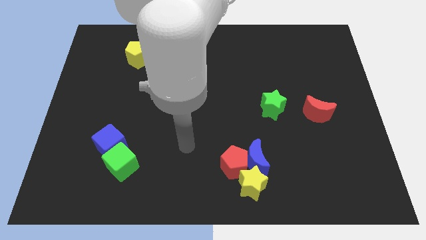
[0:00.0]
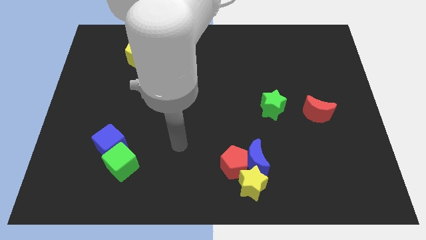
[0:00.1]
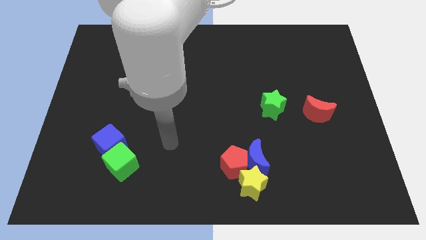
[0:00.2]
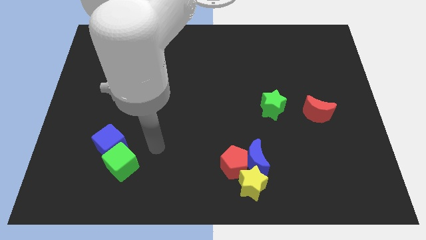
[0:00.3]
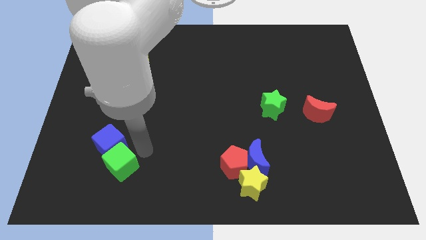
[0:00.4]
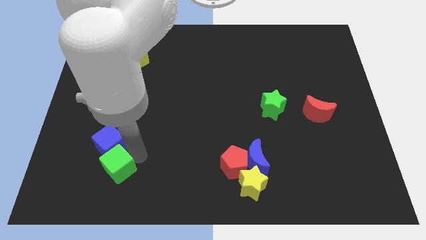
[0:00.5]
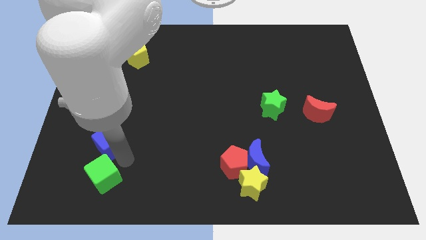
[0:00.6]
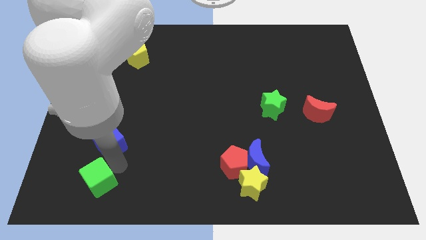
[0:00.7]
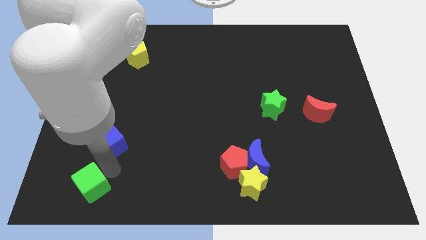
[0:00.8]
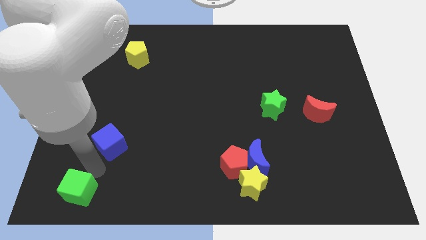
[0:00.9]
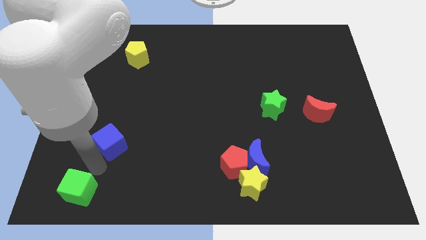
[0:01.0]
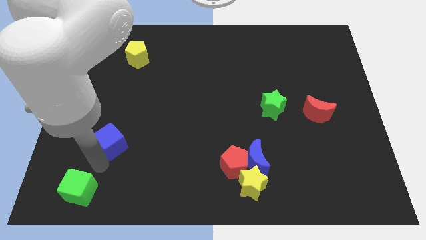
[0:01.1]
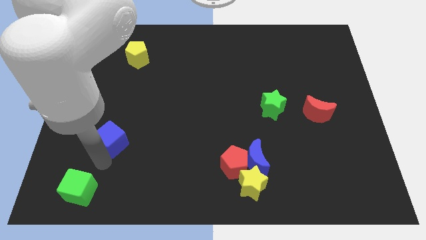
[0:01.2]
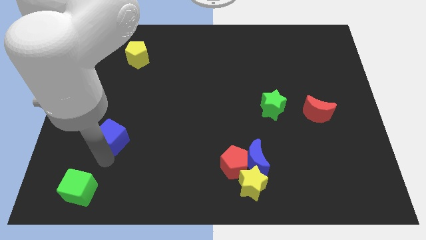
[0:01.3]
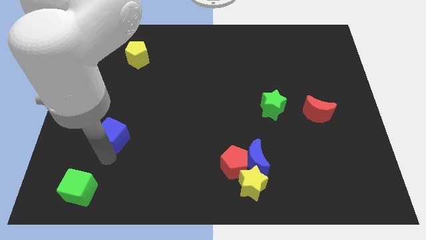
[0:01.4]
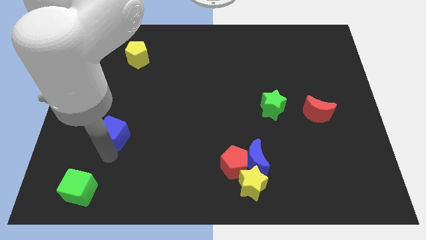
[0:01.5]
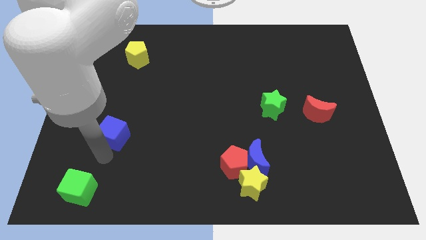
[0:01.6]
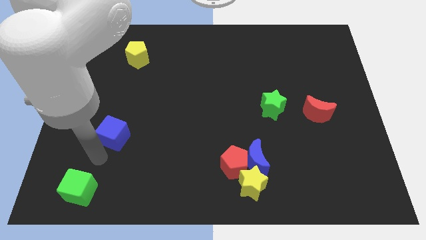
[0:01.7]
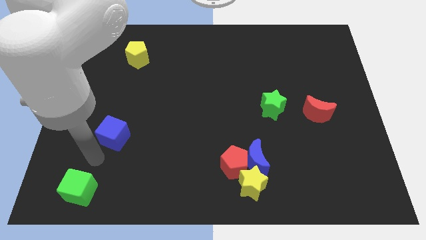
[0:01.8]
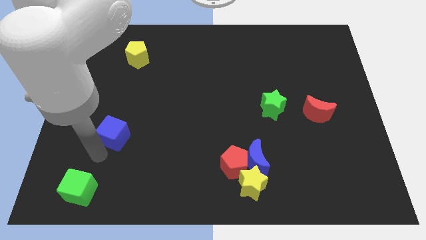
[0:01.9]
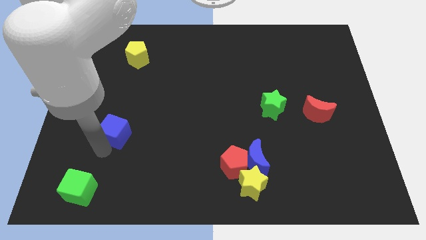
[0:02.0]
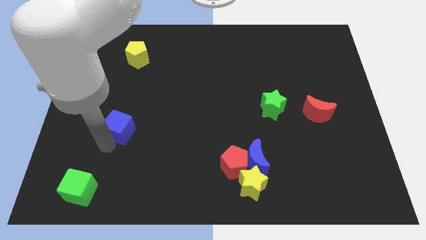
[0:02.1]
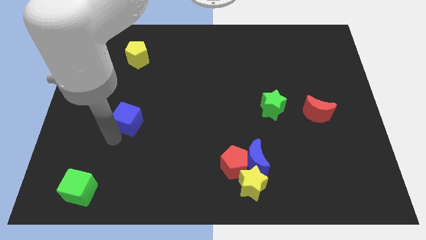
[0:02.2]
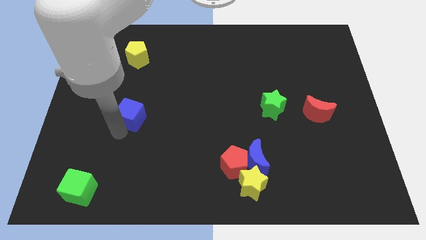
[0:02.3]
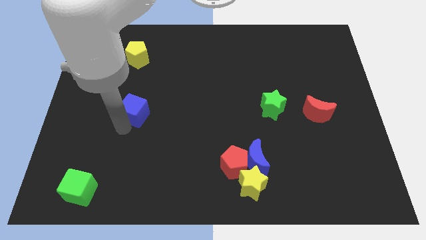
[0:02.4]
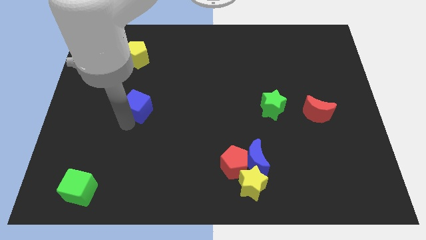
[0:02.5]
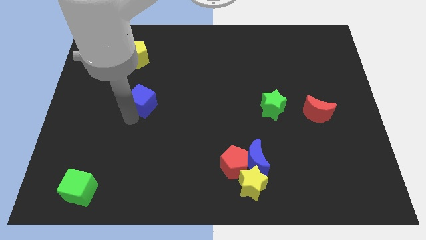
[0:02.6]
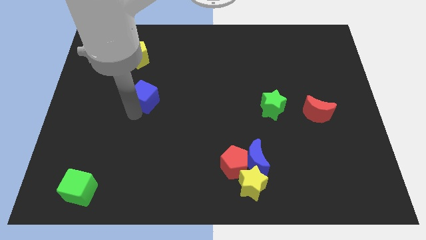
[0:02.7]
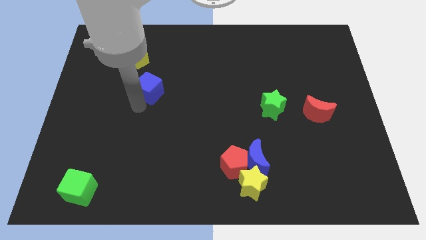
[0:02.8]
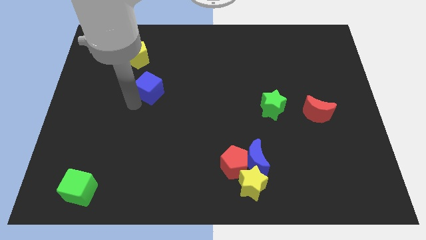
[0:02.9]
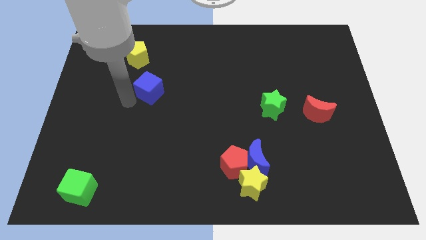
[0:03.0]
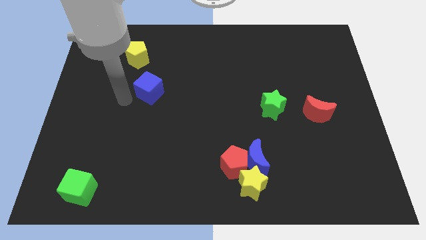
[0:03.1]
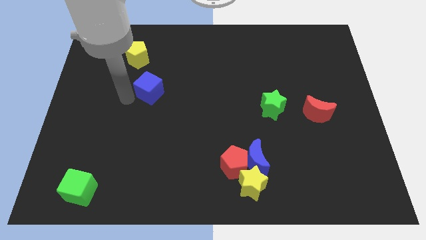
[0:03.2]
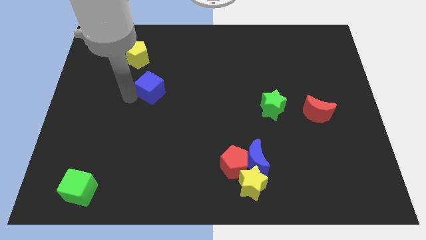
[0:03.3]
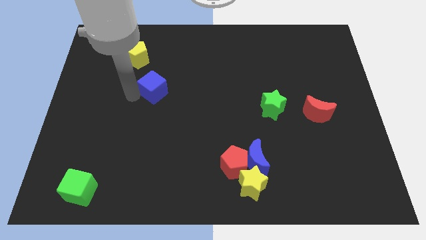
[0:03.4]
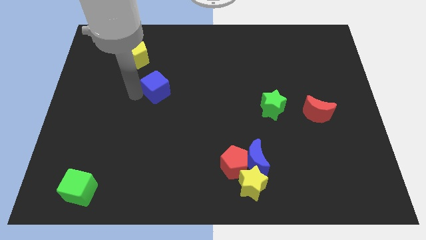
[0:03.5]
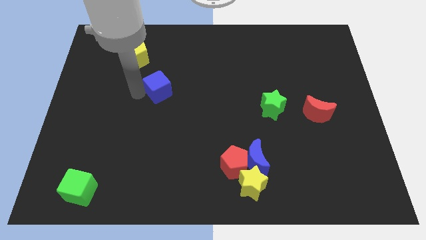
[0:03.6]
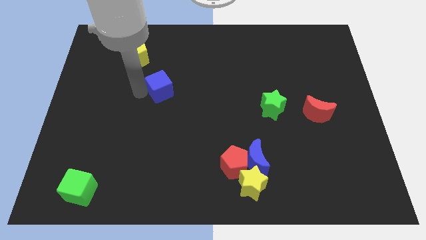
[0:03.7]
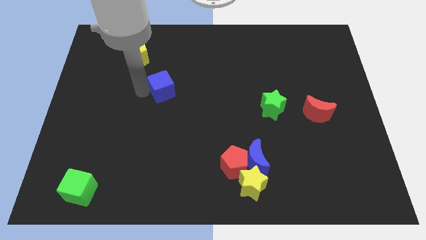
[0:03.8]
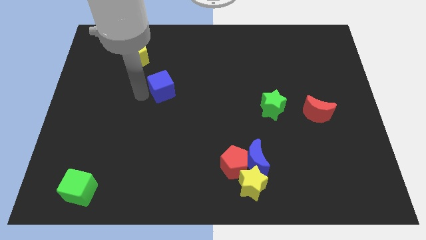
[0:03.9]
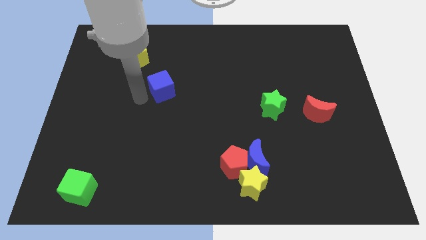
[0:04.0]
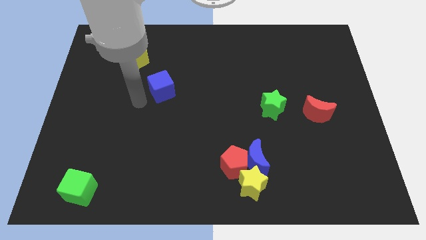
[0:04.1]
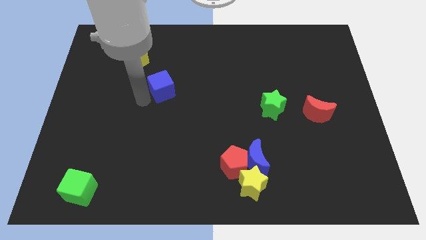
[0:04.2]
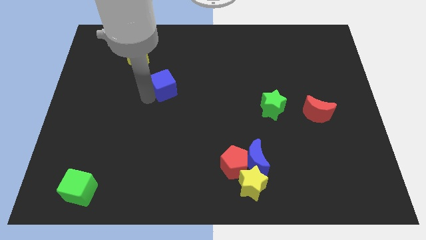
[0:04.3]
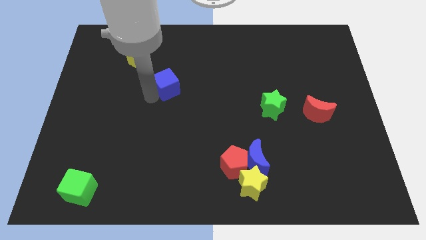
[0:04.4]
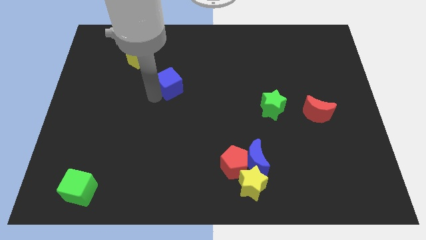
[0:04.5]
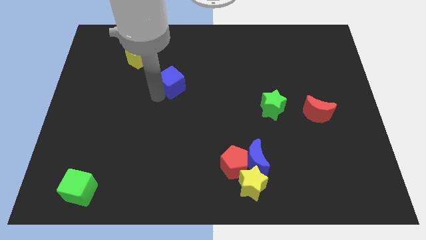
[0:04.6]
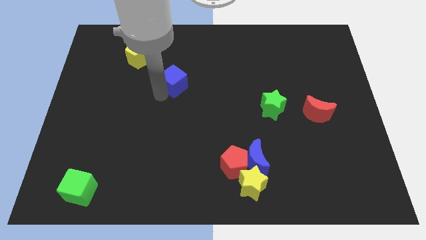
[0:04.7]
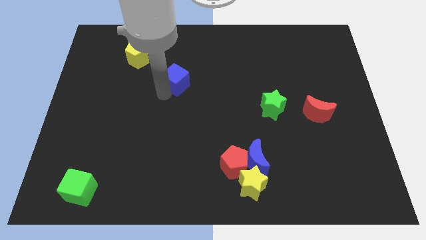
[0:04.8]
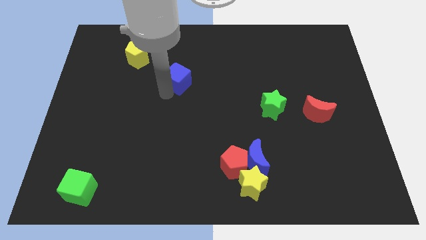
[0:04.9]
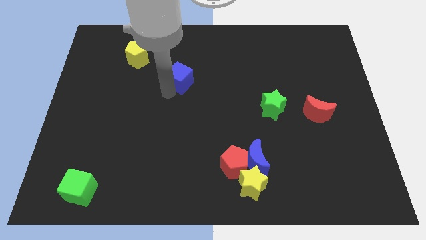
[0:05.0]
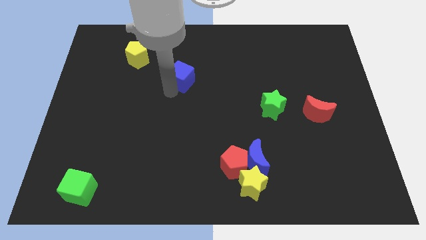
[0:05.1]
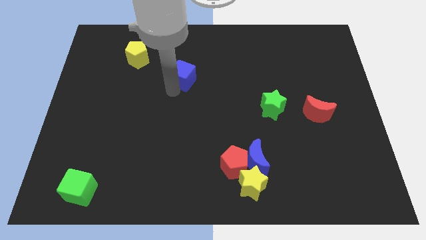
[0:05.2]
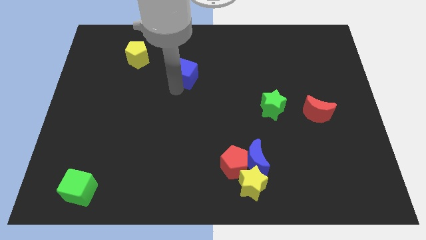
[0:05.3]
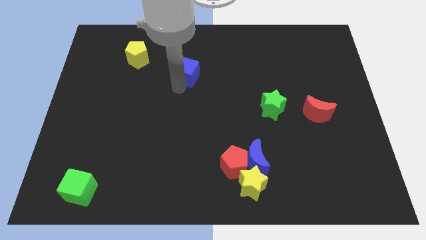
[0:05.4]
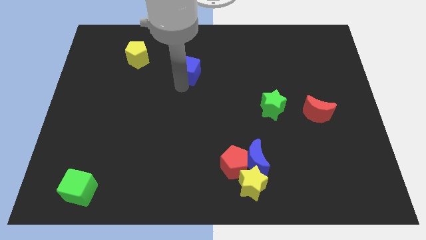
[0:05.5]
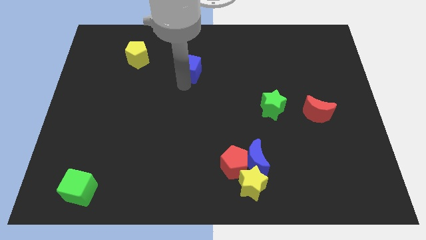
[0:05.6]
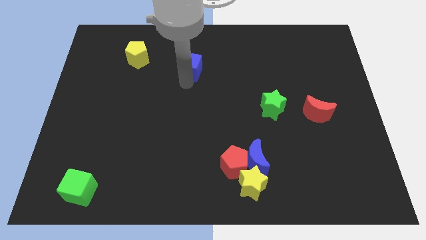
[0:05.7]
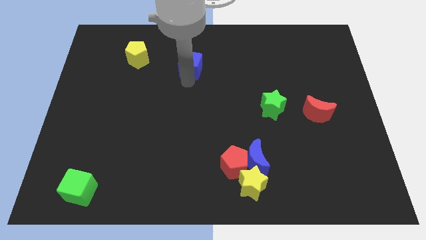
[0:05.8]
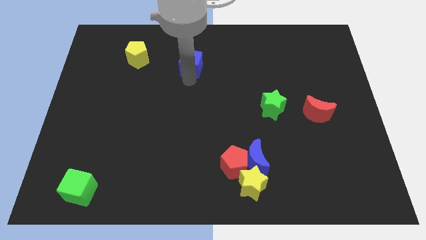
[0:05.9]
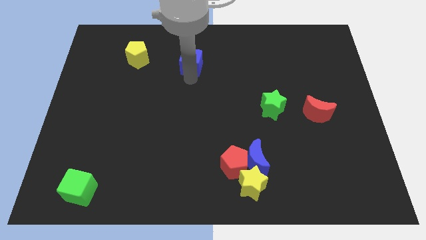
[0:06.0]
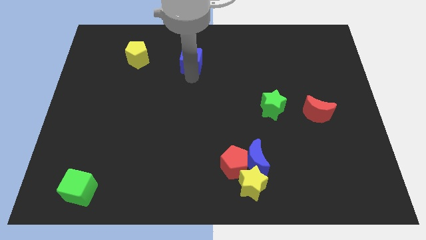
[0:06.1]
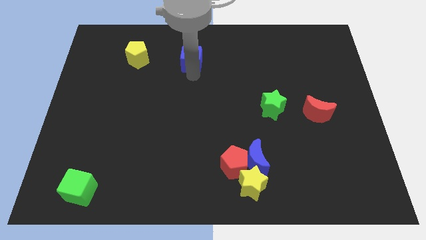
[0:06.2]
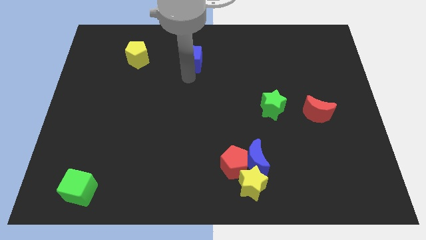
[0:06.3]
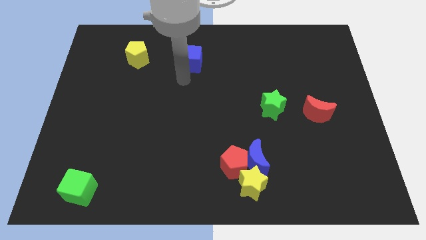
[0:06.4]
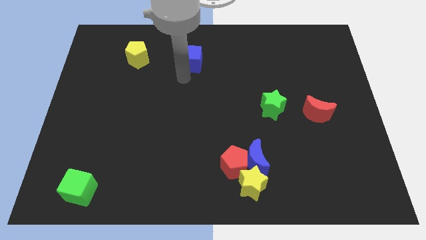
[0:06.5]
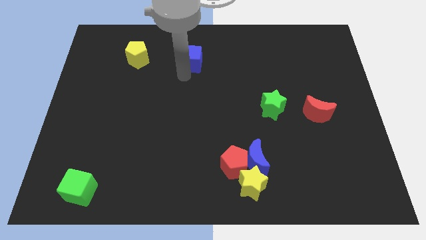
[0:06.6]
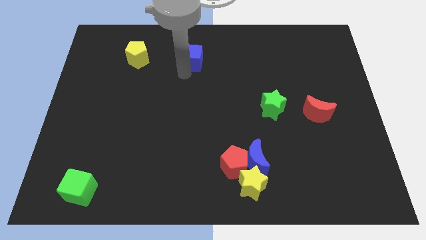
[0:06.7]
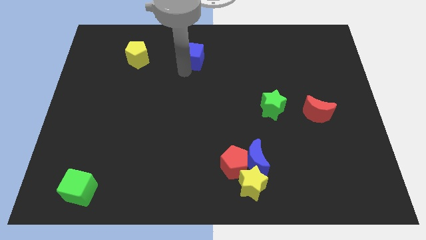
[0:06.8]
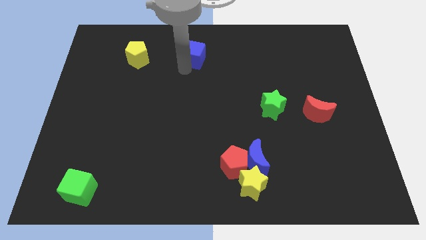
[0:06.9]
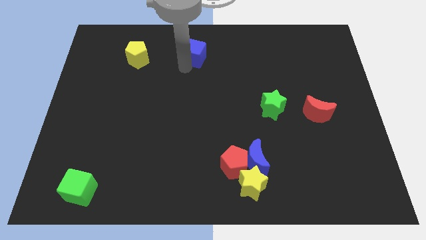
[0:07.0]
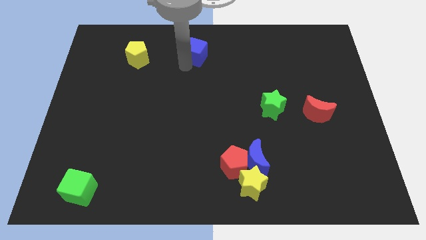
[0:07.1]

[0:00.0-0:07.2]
move the blue cube to the towards your base

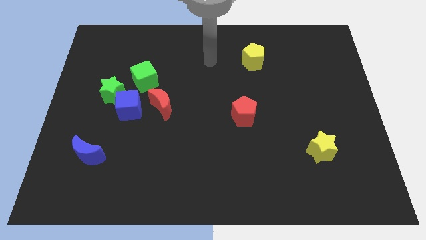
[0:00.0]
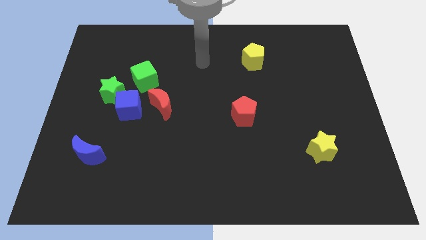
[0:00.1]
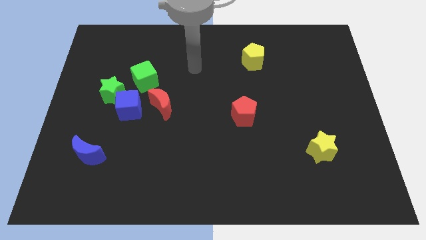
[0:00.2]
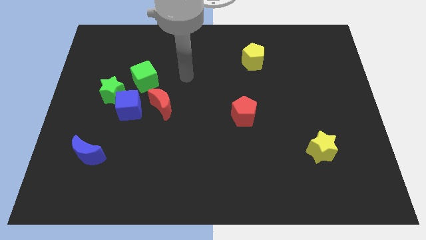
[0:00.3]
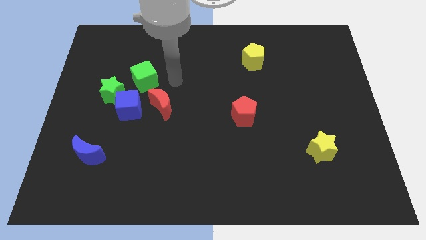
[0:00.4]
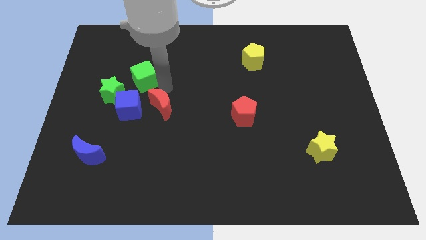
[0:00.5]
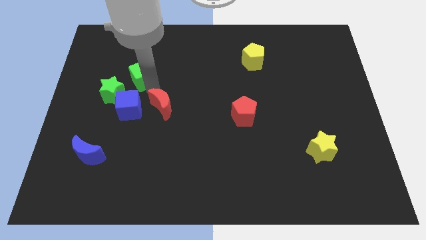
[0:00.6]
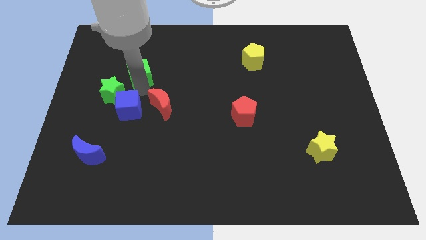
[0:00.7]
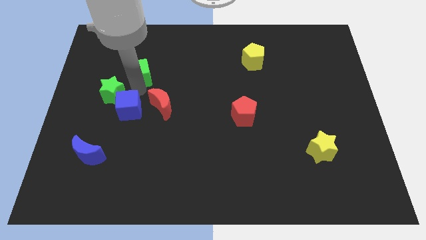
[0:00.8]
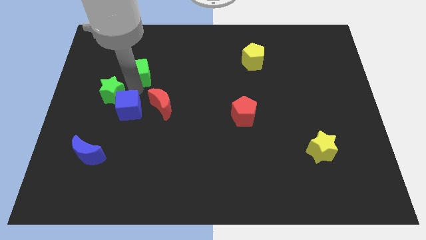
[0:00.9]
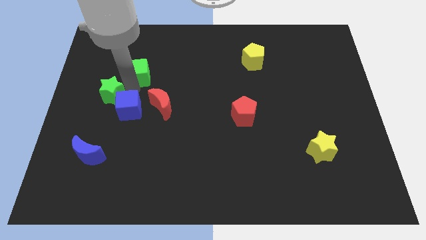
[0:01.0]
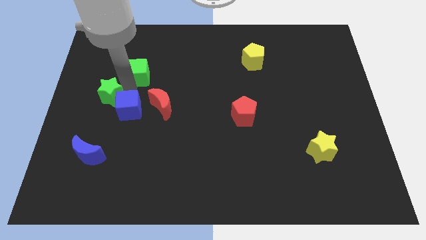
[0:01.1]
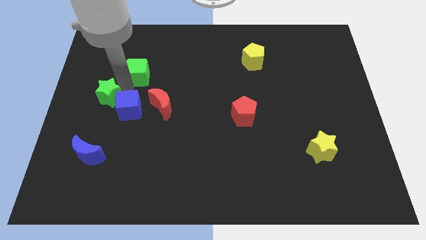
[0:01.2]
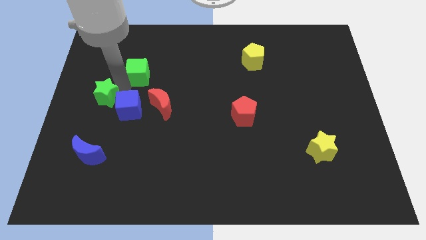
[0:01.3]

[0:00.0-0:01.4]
push the green star to the left side
